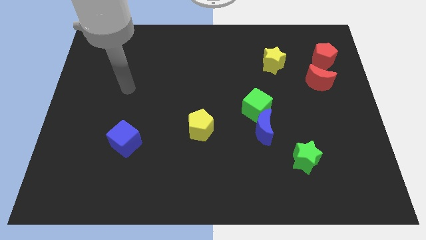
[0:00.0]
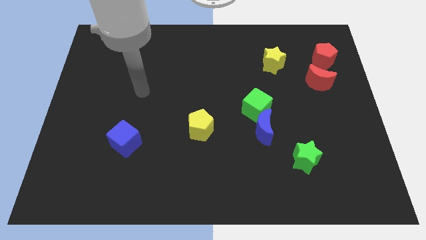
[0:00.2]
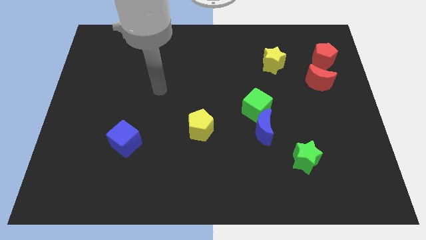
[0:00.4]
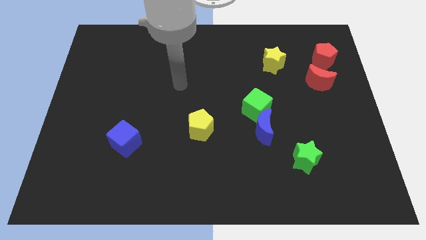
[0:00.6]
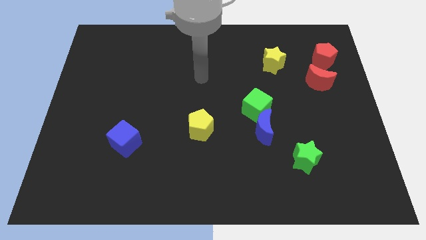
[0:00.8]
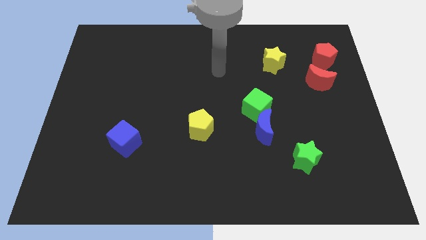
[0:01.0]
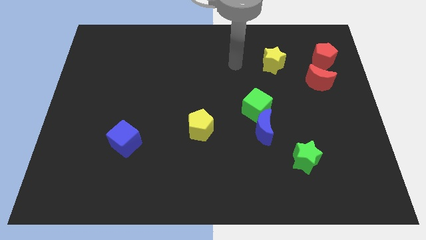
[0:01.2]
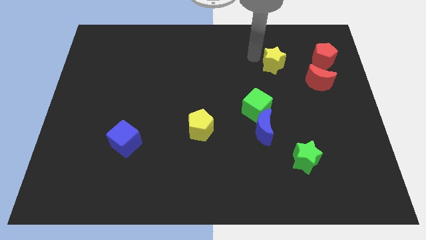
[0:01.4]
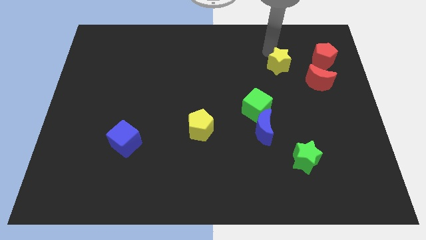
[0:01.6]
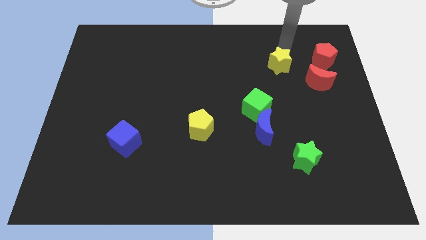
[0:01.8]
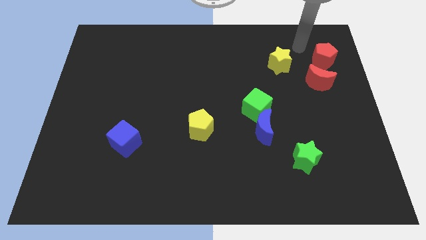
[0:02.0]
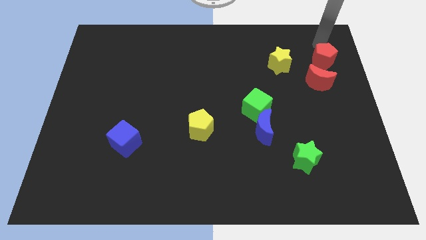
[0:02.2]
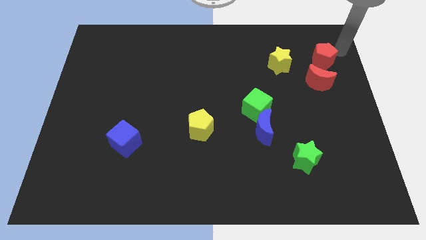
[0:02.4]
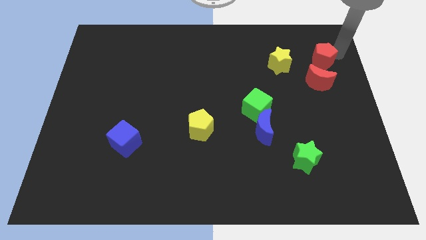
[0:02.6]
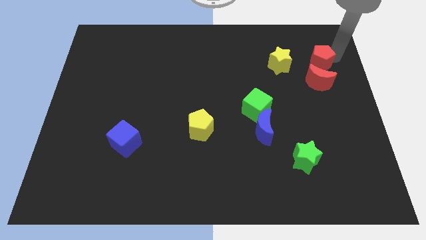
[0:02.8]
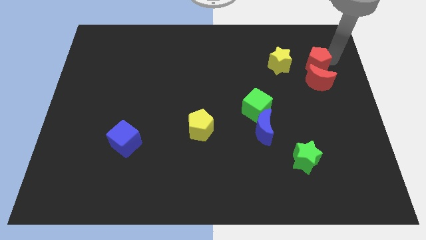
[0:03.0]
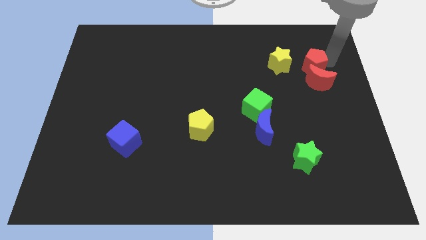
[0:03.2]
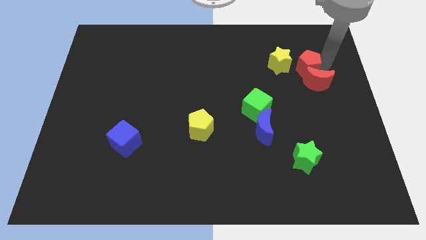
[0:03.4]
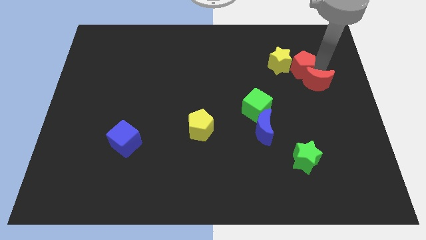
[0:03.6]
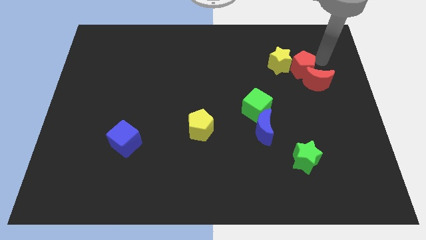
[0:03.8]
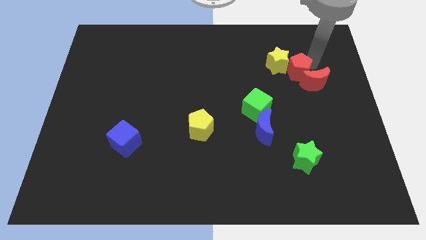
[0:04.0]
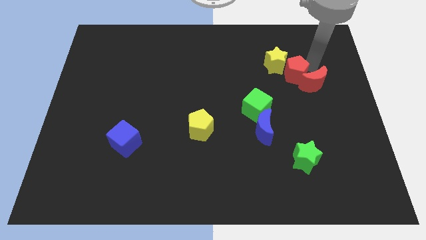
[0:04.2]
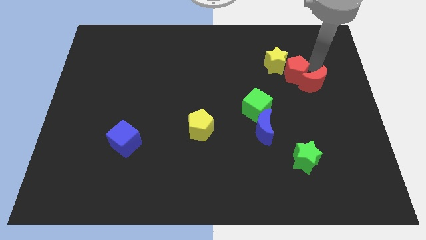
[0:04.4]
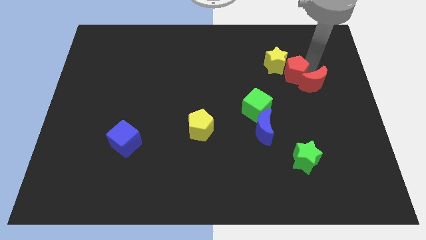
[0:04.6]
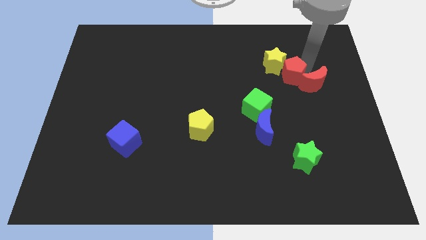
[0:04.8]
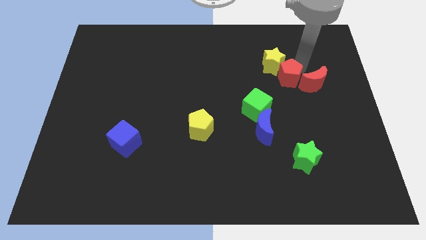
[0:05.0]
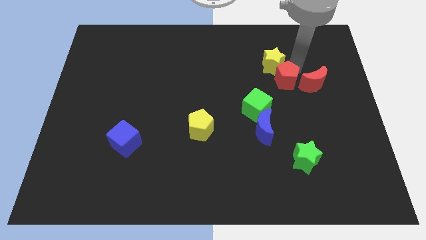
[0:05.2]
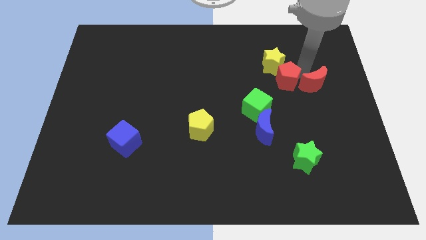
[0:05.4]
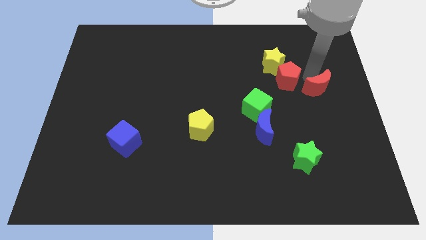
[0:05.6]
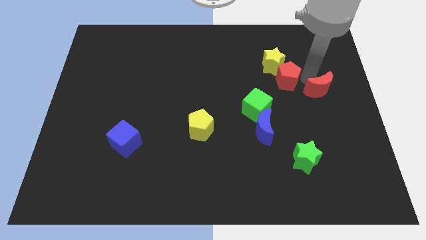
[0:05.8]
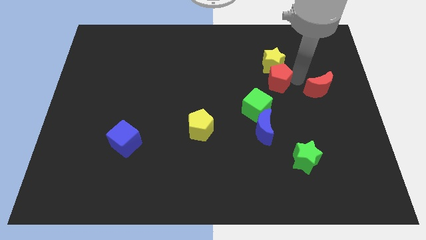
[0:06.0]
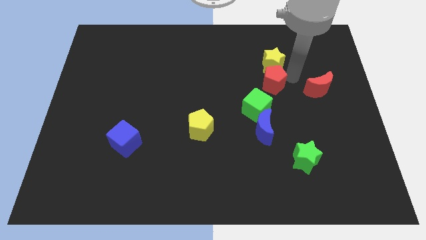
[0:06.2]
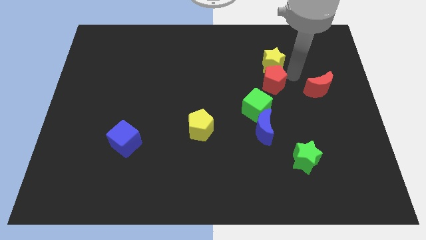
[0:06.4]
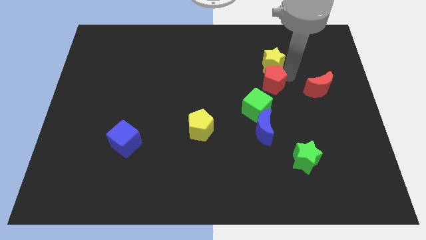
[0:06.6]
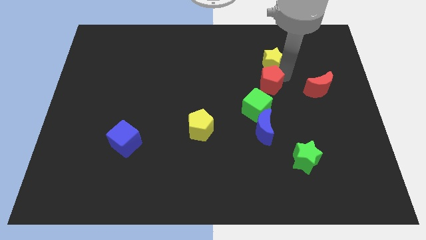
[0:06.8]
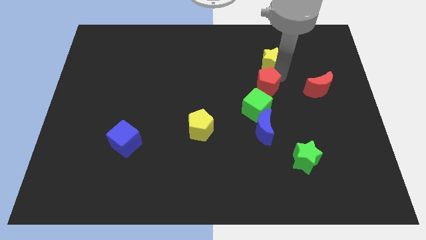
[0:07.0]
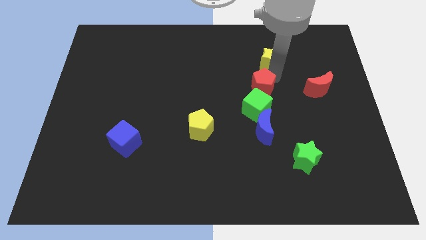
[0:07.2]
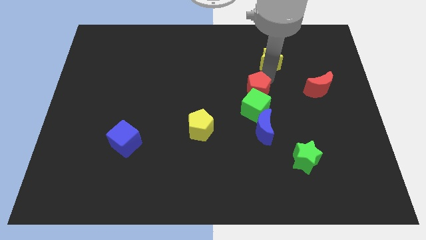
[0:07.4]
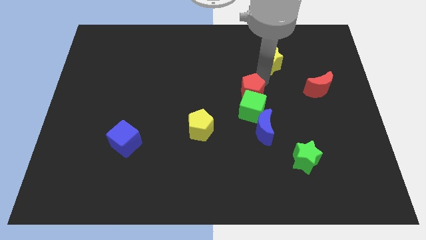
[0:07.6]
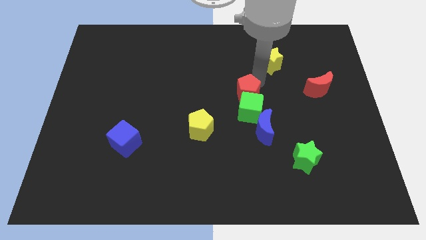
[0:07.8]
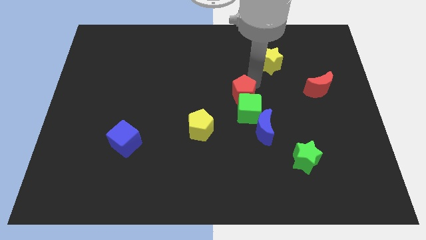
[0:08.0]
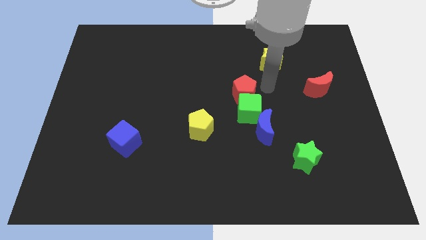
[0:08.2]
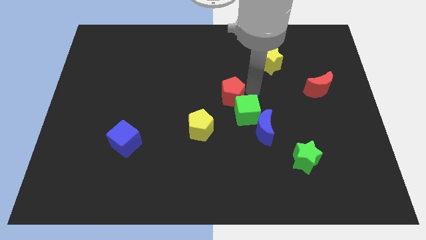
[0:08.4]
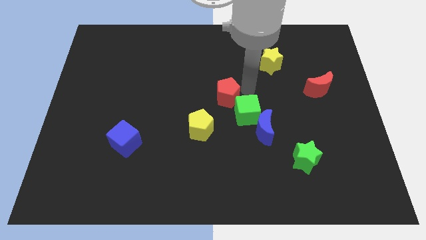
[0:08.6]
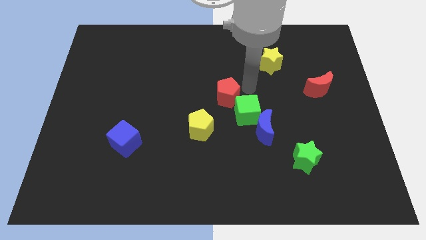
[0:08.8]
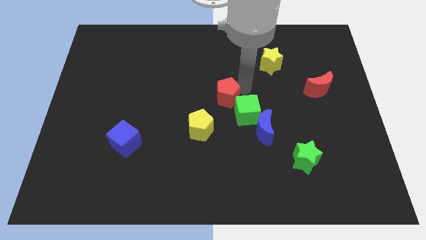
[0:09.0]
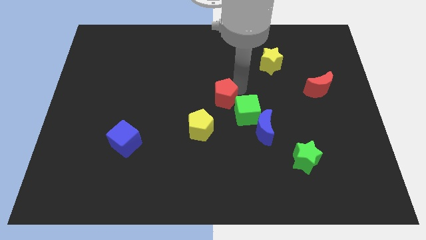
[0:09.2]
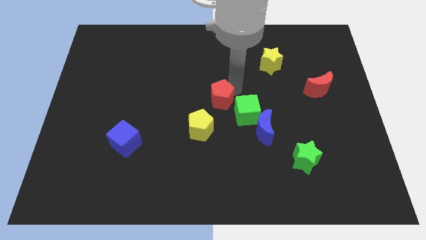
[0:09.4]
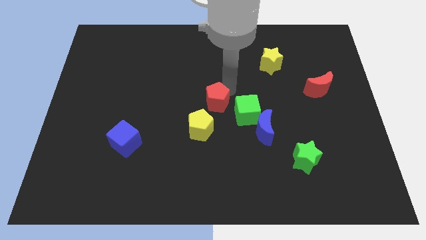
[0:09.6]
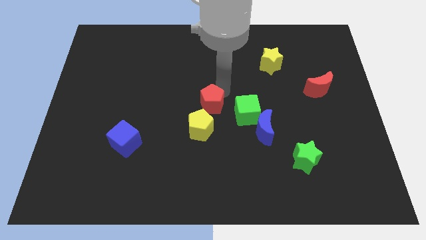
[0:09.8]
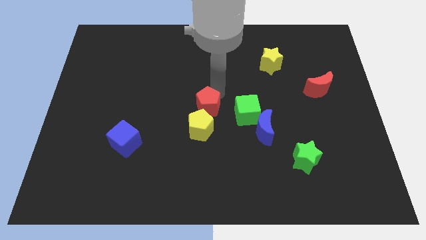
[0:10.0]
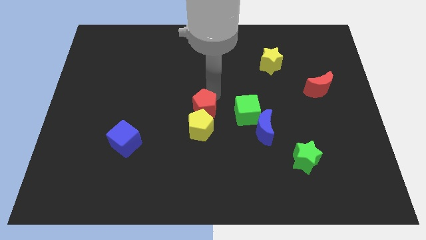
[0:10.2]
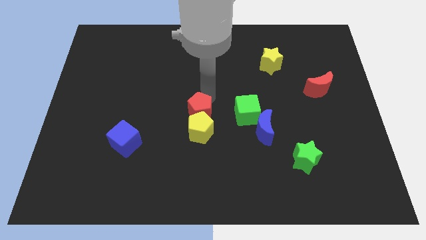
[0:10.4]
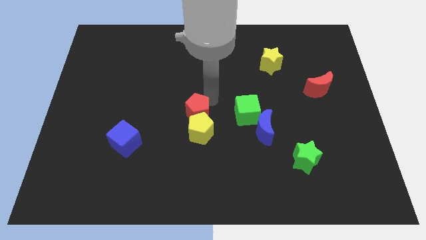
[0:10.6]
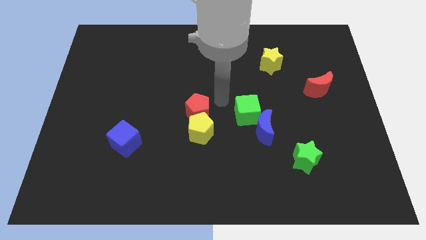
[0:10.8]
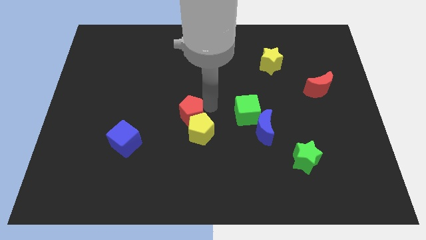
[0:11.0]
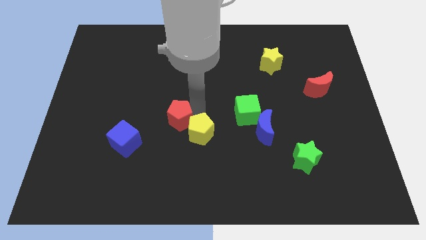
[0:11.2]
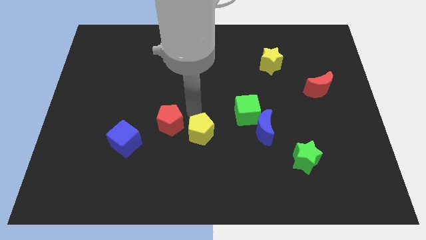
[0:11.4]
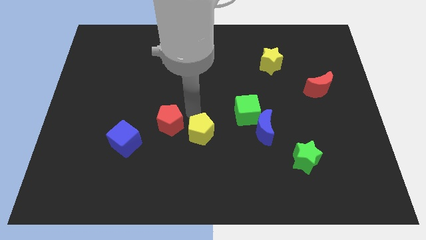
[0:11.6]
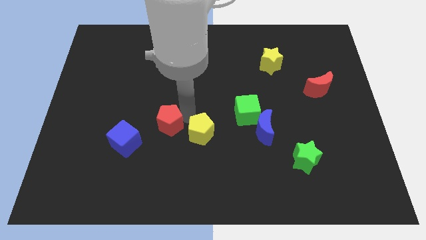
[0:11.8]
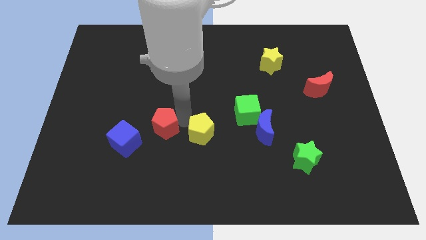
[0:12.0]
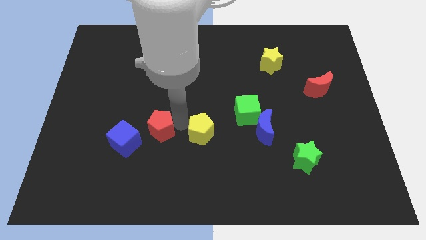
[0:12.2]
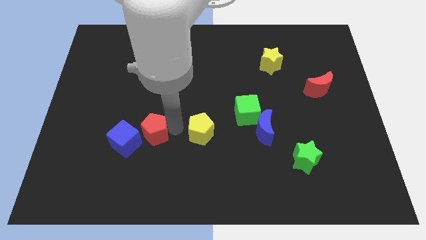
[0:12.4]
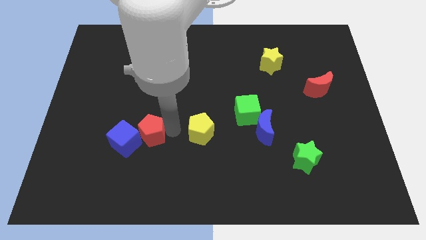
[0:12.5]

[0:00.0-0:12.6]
slide the red pentagon close to the blue cube

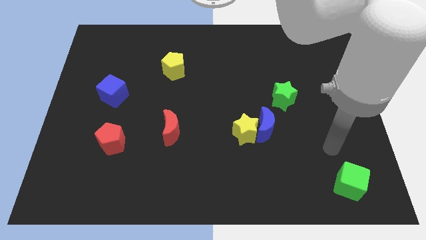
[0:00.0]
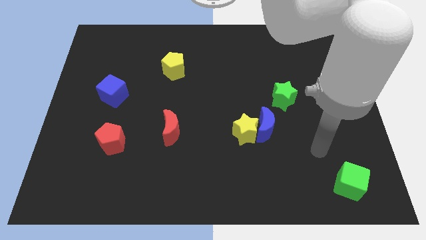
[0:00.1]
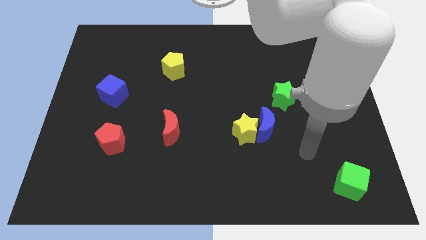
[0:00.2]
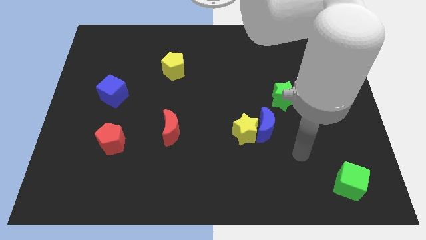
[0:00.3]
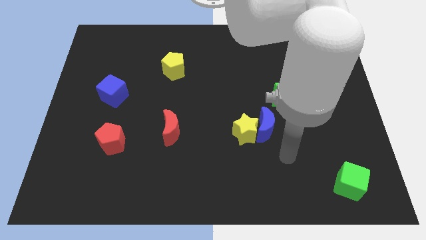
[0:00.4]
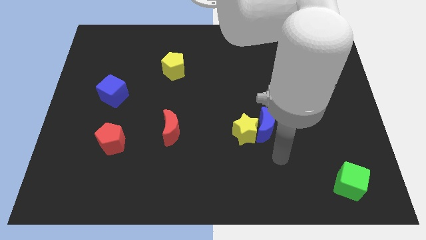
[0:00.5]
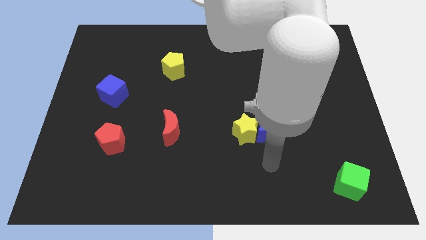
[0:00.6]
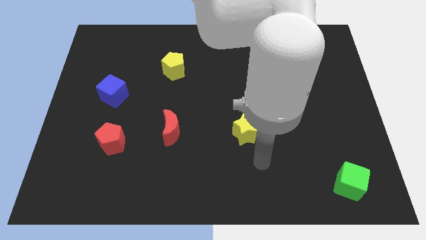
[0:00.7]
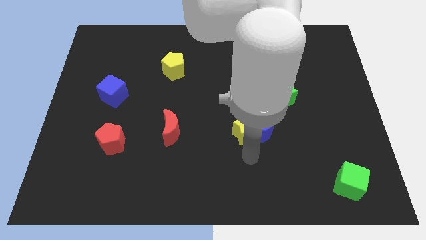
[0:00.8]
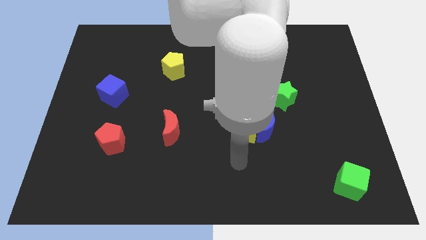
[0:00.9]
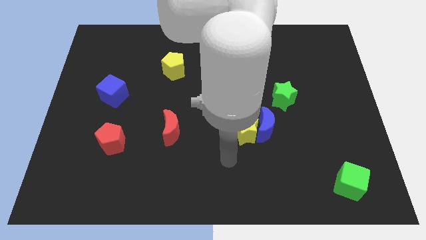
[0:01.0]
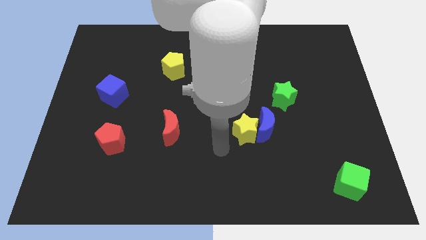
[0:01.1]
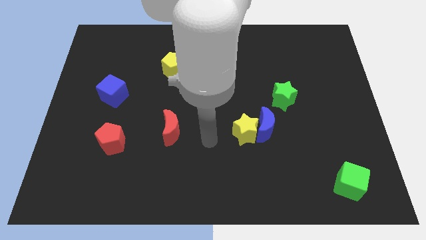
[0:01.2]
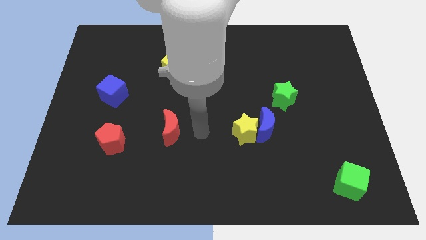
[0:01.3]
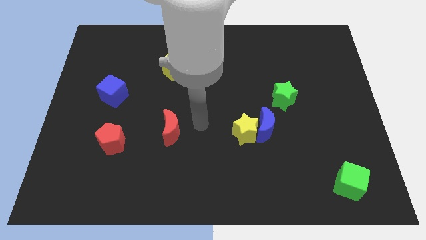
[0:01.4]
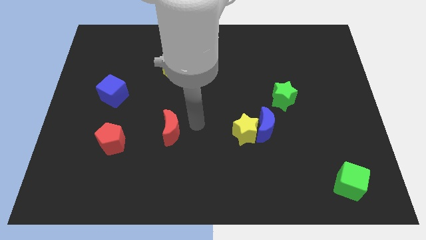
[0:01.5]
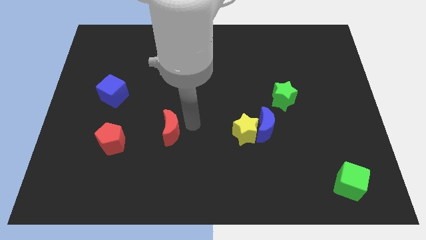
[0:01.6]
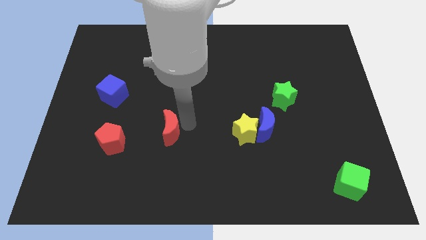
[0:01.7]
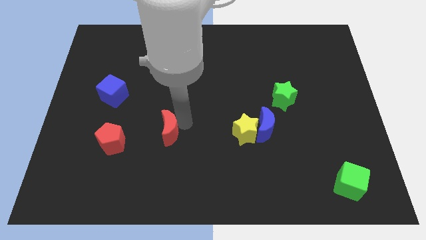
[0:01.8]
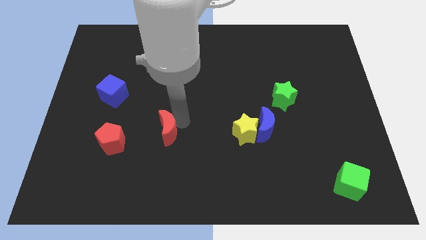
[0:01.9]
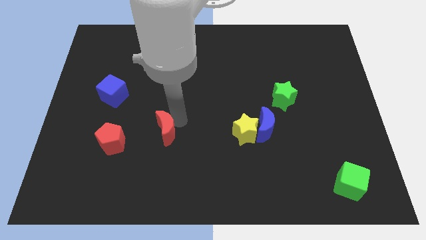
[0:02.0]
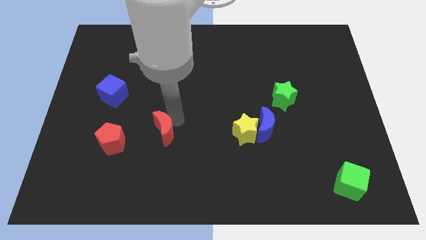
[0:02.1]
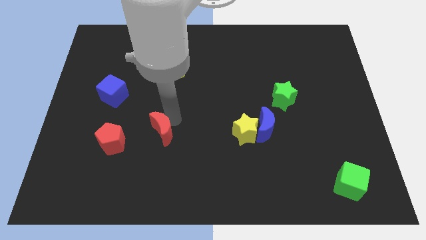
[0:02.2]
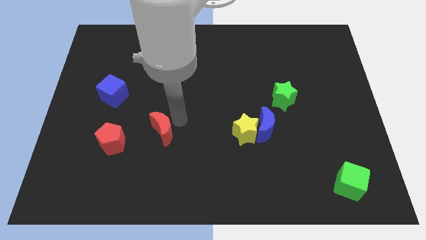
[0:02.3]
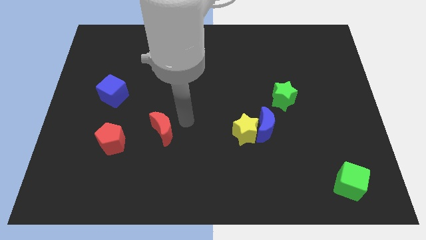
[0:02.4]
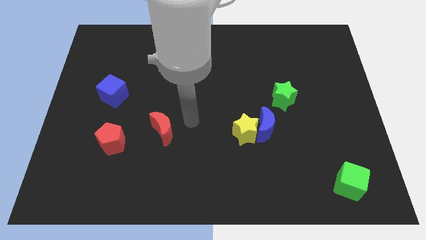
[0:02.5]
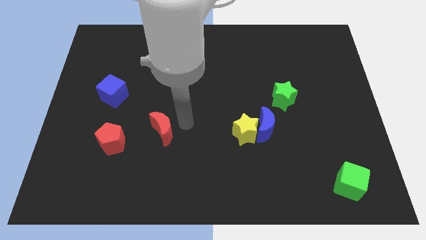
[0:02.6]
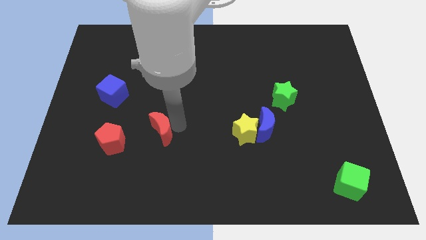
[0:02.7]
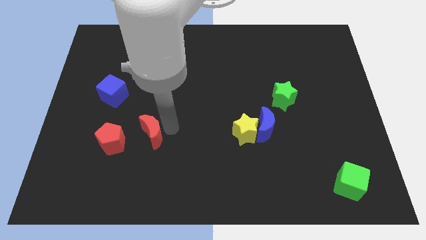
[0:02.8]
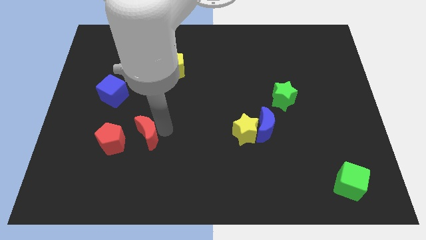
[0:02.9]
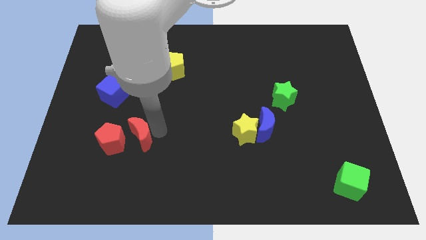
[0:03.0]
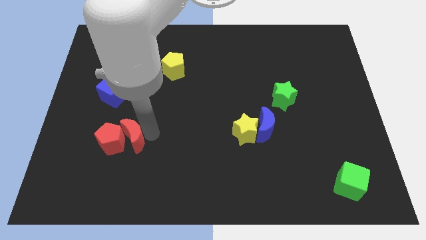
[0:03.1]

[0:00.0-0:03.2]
move the red moon to the red pentagon
